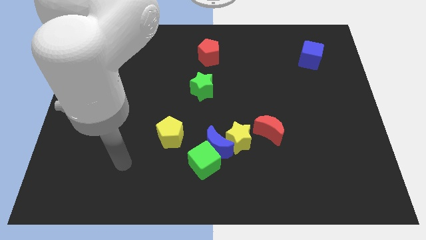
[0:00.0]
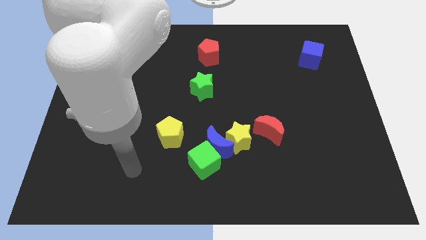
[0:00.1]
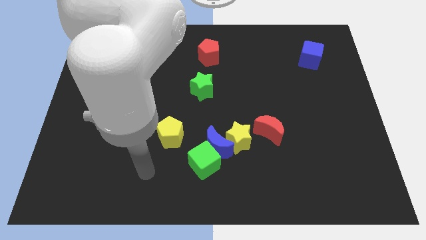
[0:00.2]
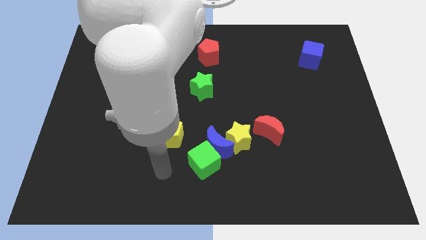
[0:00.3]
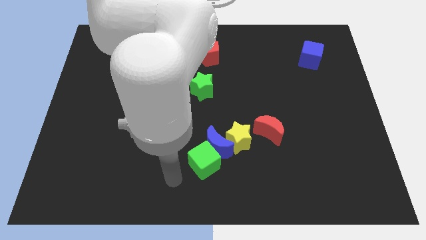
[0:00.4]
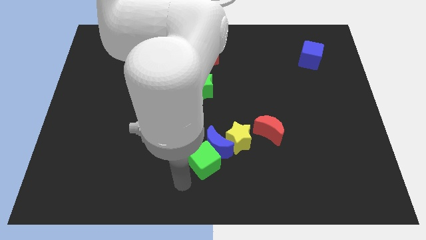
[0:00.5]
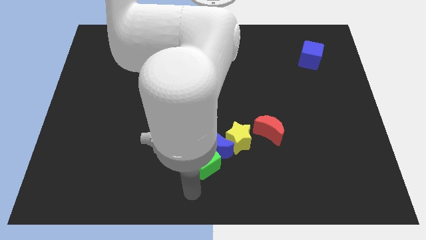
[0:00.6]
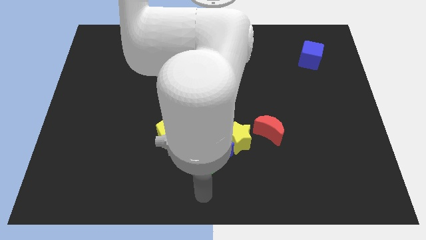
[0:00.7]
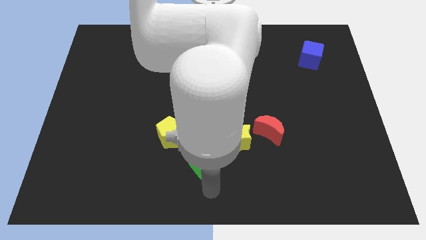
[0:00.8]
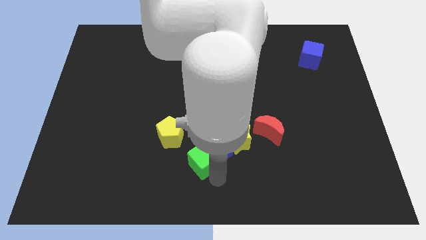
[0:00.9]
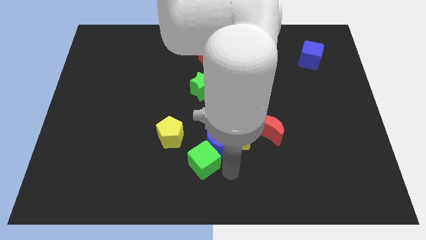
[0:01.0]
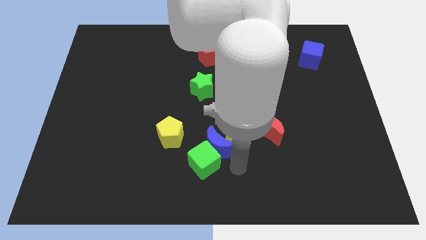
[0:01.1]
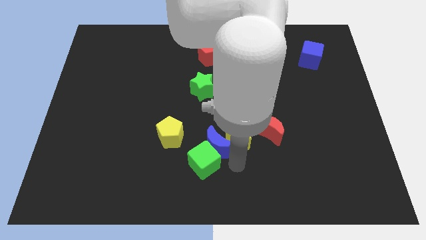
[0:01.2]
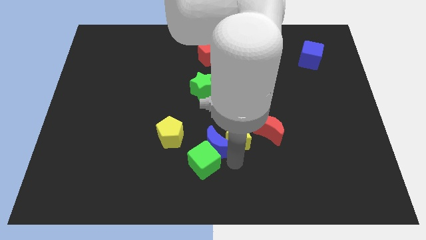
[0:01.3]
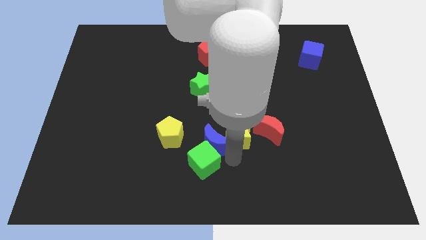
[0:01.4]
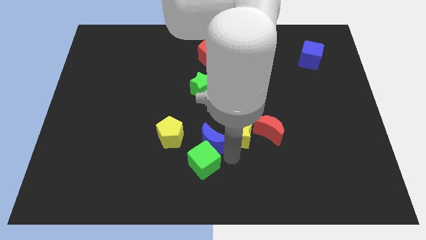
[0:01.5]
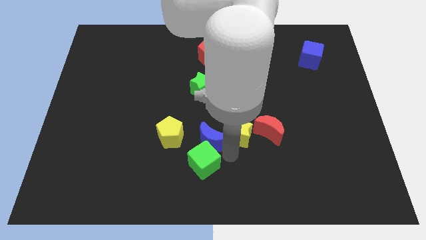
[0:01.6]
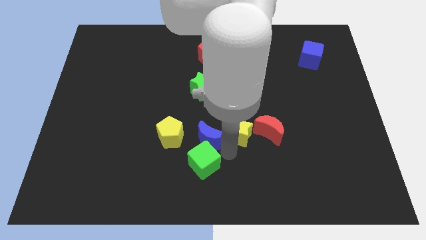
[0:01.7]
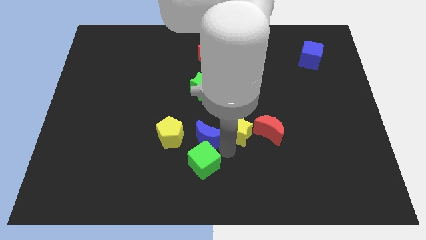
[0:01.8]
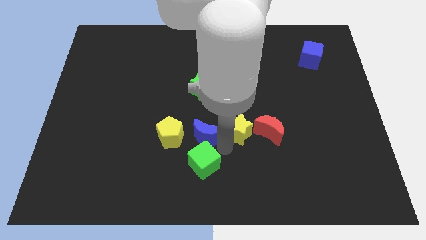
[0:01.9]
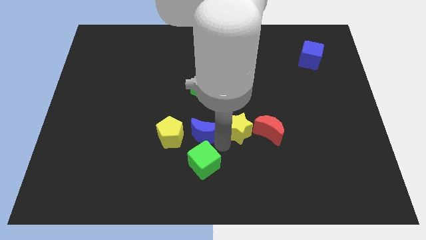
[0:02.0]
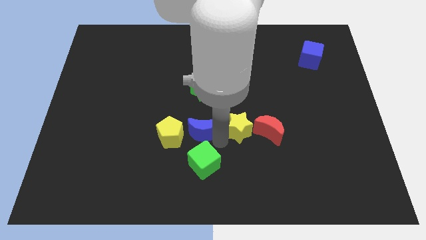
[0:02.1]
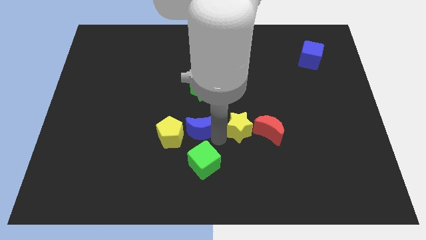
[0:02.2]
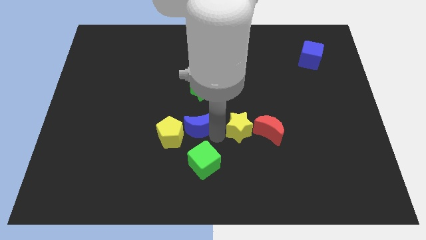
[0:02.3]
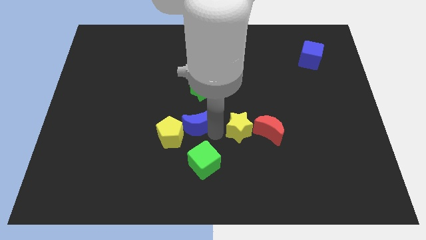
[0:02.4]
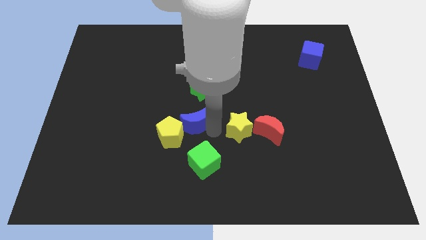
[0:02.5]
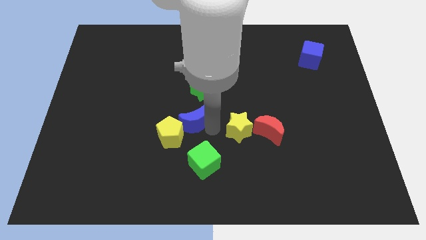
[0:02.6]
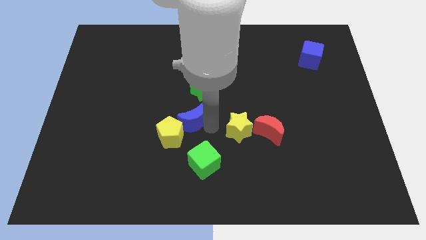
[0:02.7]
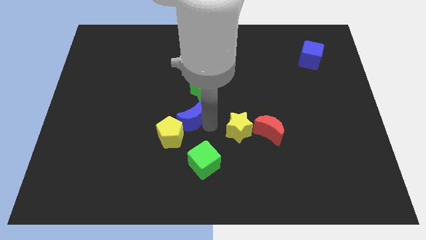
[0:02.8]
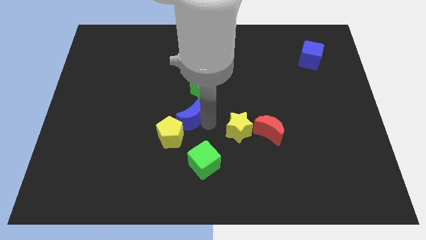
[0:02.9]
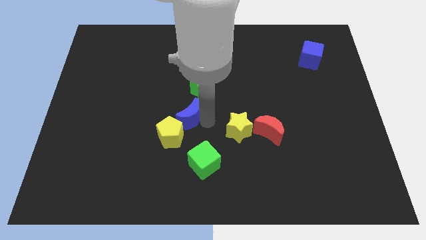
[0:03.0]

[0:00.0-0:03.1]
pull the blue moon apart from the green cube and yellow star

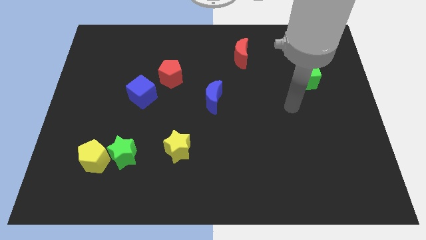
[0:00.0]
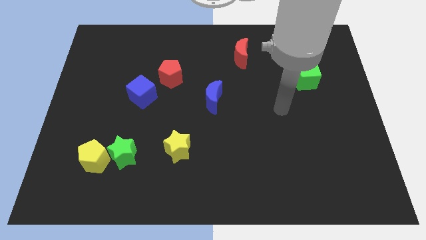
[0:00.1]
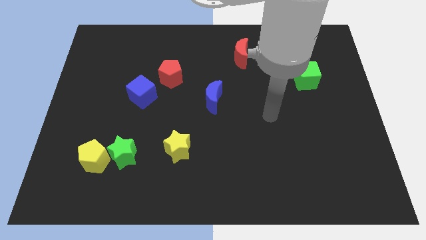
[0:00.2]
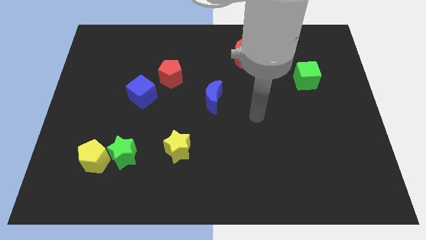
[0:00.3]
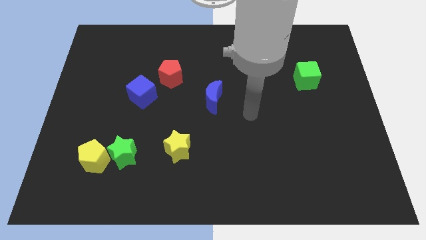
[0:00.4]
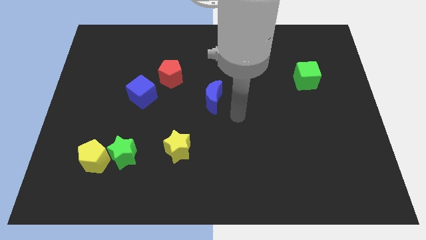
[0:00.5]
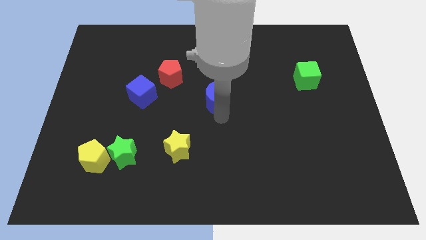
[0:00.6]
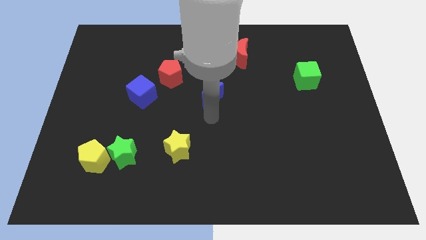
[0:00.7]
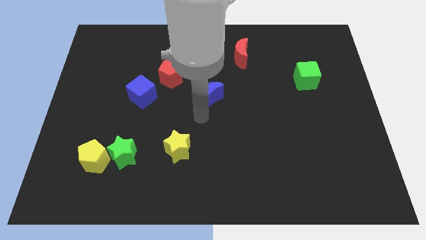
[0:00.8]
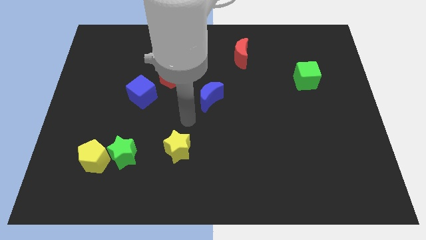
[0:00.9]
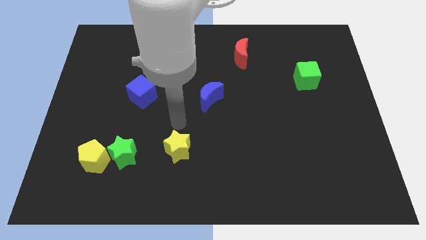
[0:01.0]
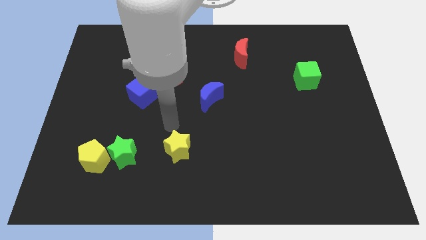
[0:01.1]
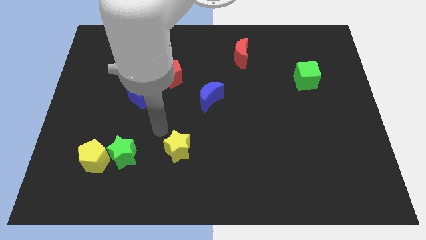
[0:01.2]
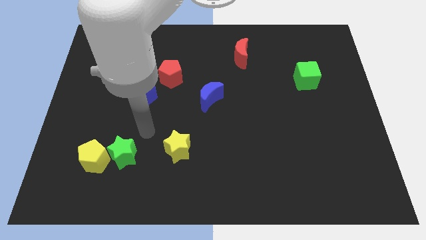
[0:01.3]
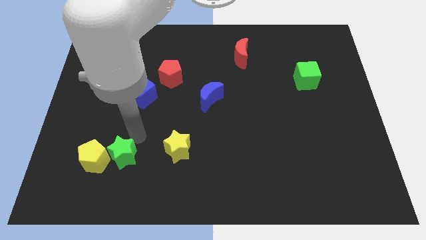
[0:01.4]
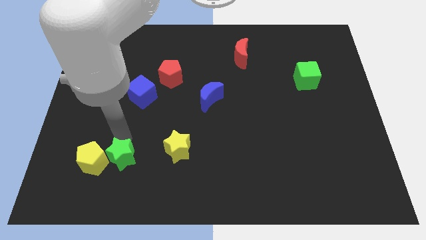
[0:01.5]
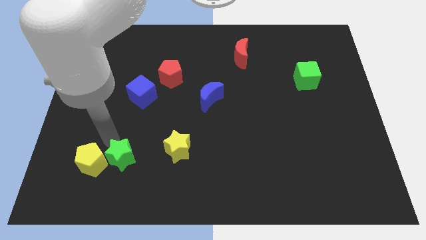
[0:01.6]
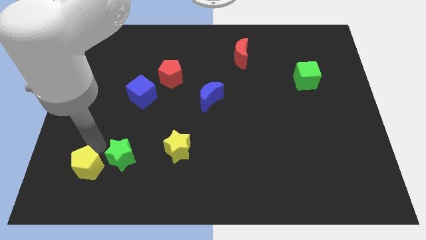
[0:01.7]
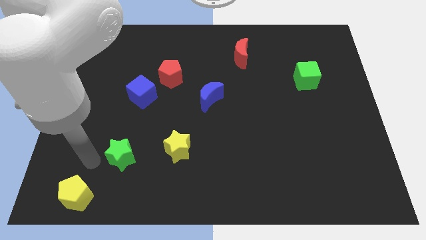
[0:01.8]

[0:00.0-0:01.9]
pull the green star apart from the yellow pentagon

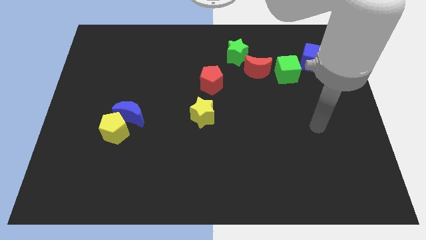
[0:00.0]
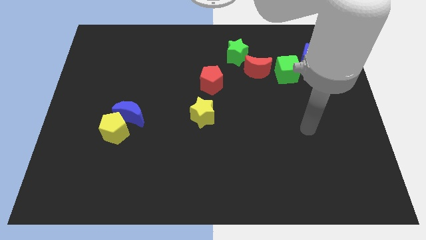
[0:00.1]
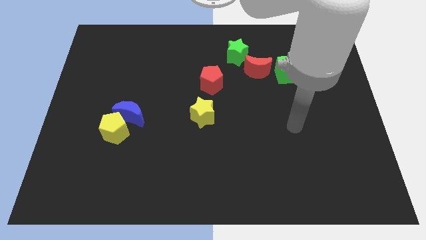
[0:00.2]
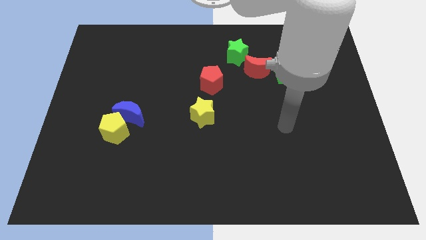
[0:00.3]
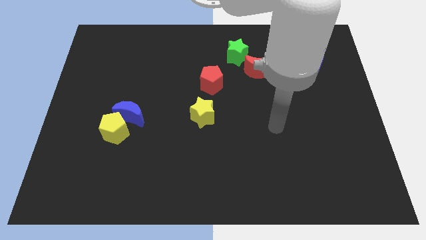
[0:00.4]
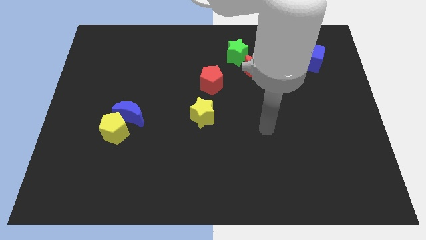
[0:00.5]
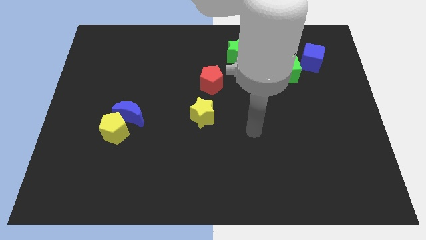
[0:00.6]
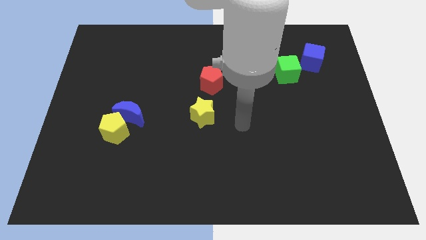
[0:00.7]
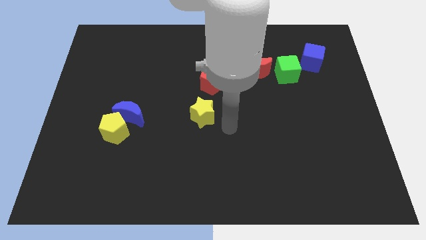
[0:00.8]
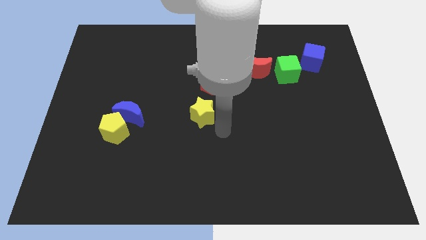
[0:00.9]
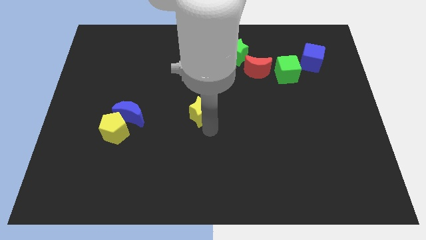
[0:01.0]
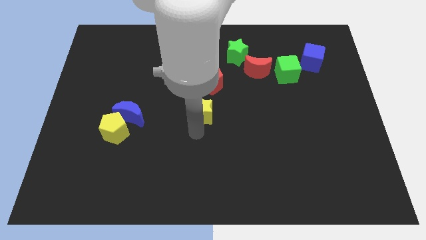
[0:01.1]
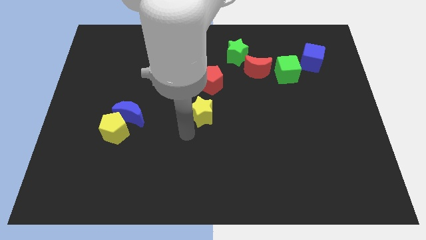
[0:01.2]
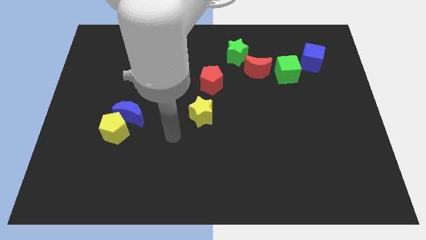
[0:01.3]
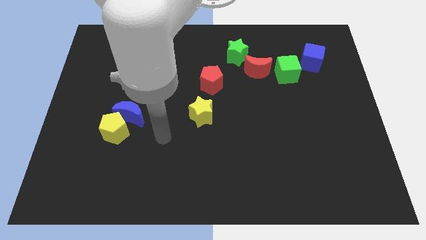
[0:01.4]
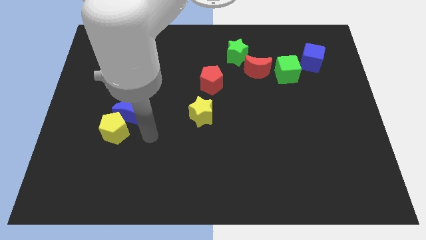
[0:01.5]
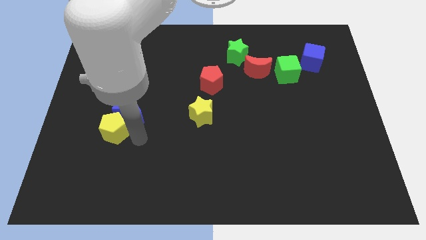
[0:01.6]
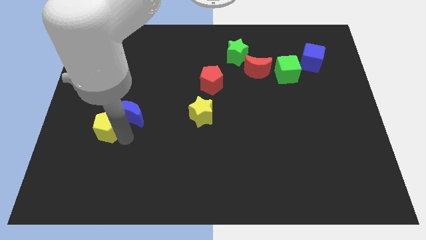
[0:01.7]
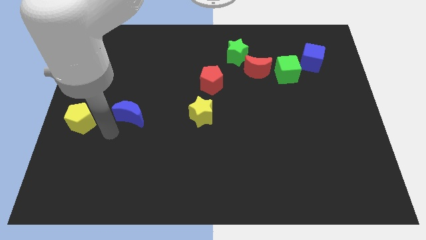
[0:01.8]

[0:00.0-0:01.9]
separate the blue moon from the yellow pentagon

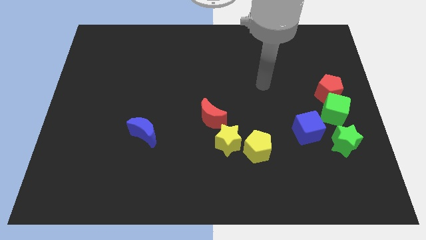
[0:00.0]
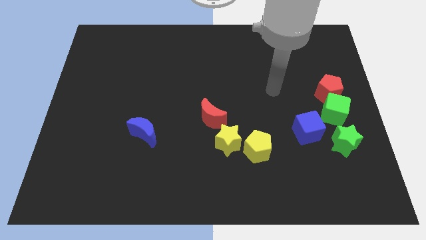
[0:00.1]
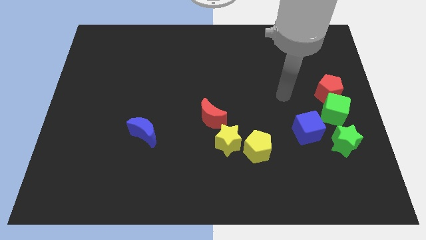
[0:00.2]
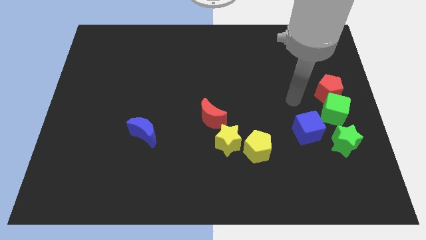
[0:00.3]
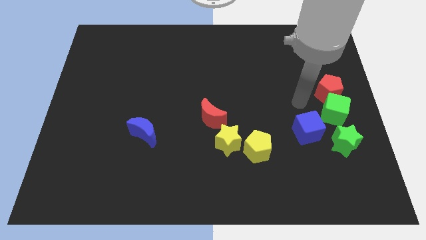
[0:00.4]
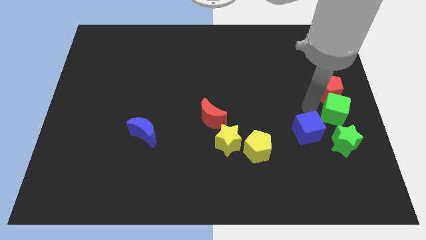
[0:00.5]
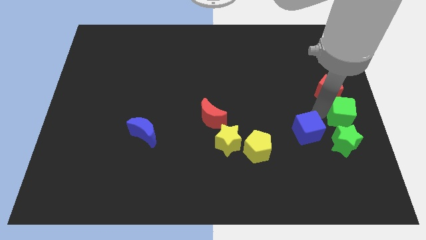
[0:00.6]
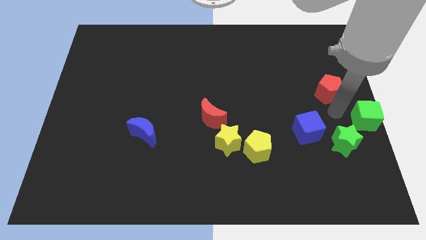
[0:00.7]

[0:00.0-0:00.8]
pull the red pentagon apart from the green cube
